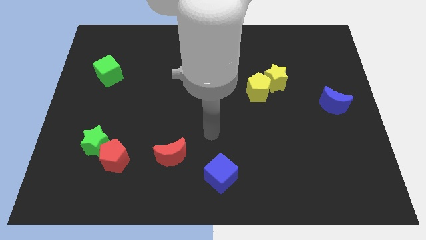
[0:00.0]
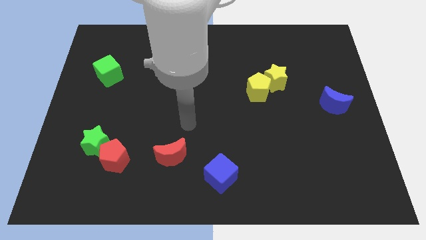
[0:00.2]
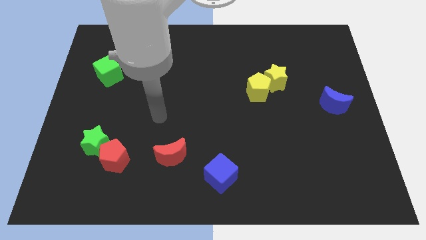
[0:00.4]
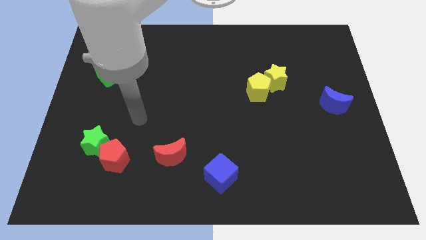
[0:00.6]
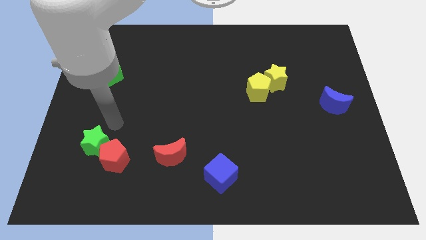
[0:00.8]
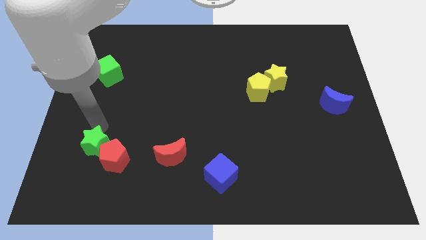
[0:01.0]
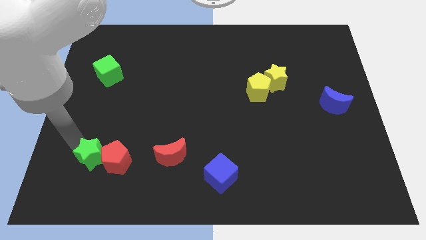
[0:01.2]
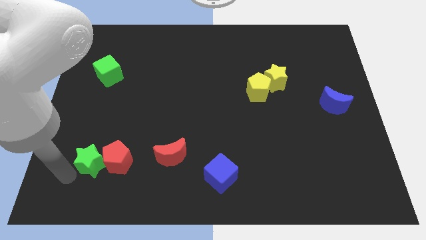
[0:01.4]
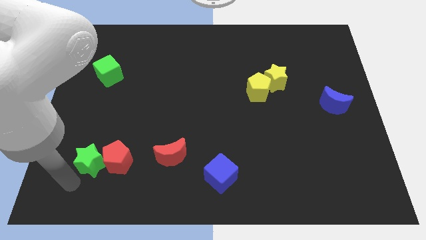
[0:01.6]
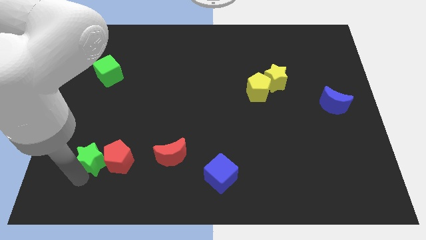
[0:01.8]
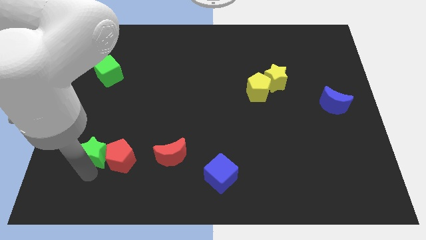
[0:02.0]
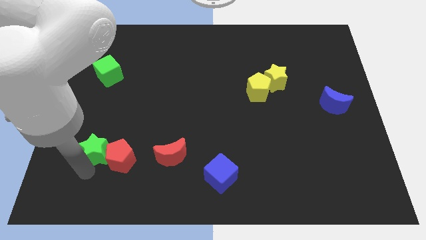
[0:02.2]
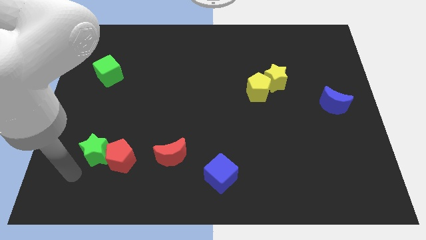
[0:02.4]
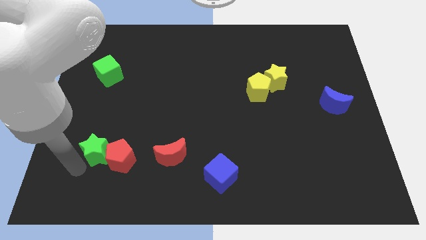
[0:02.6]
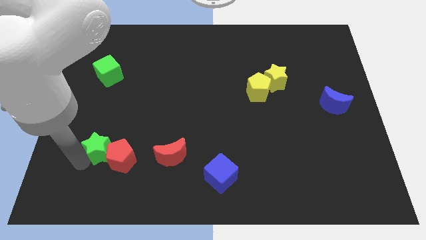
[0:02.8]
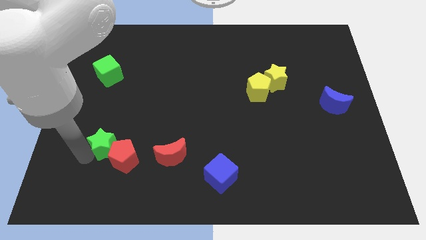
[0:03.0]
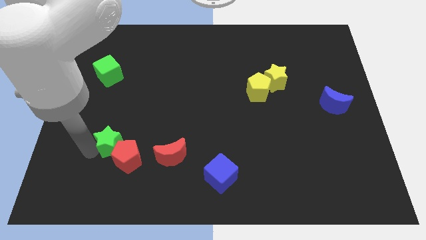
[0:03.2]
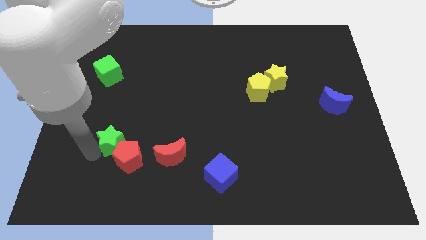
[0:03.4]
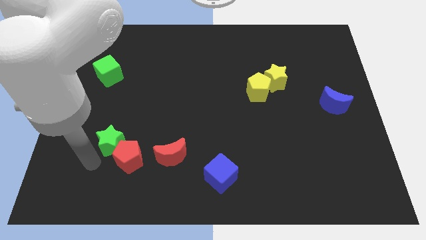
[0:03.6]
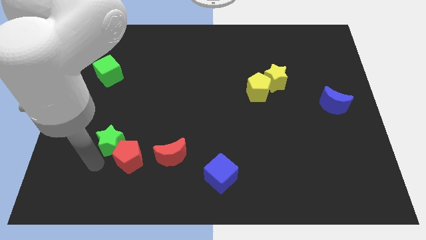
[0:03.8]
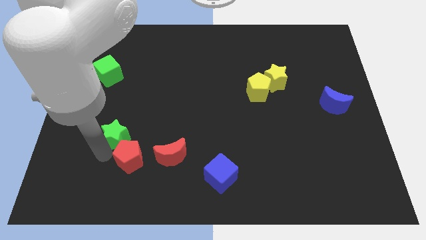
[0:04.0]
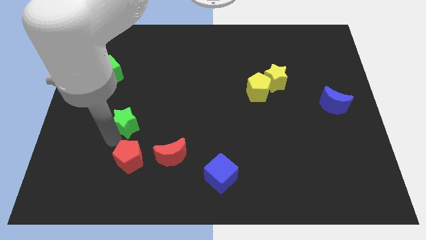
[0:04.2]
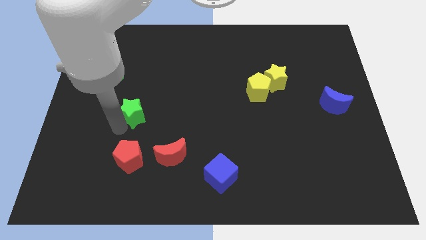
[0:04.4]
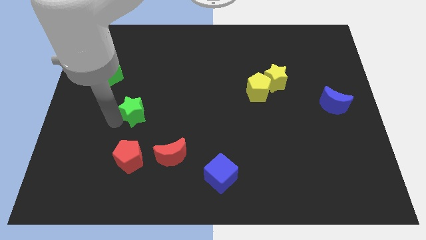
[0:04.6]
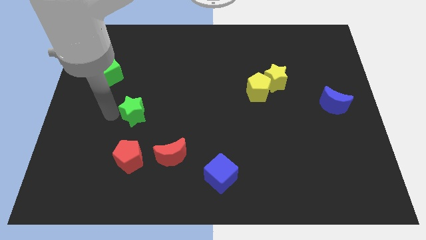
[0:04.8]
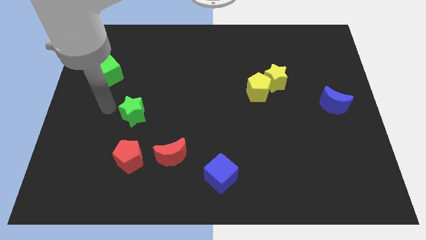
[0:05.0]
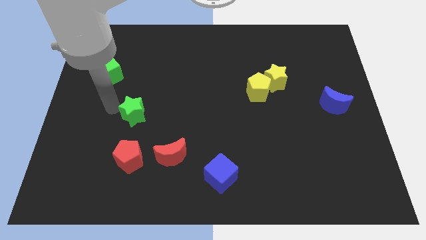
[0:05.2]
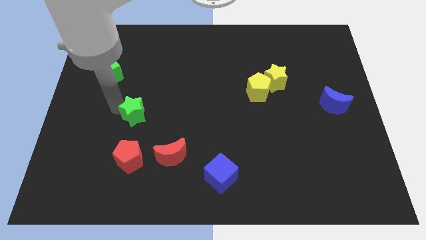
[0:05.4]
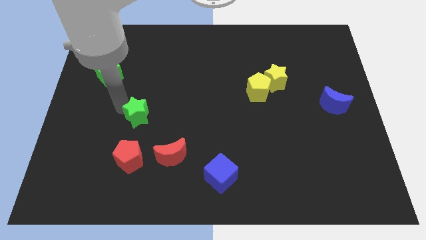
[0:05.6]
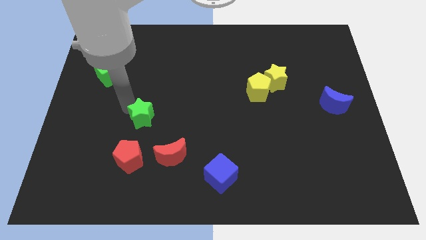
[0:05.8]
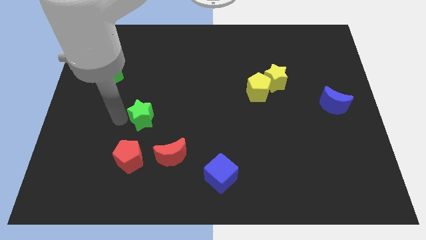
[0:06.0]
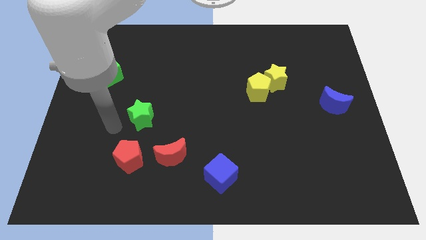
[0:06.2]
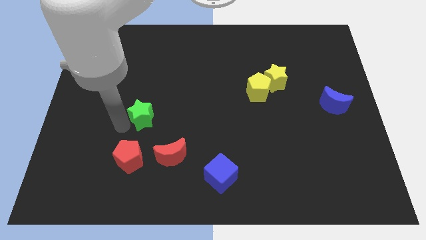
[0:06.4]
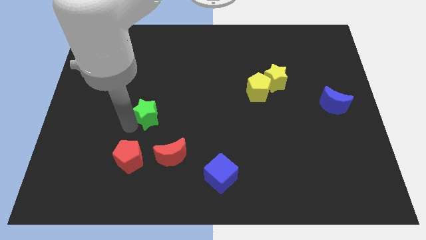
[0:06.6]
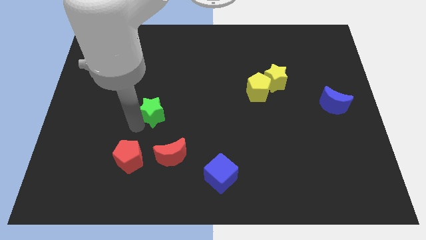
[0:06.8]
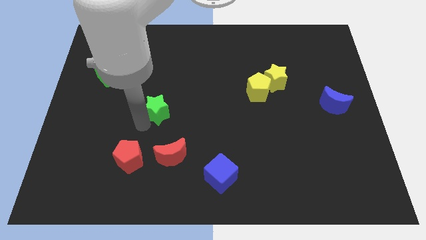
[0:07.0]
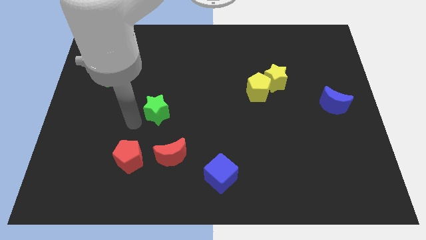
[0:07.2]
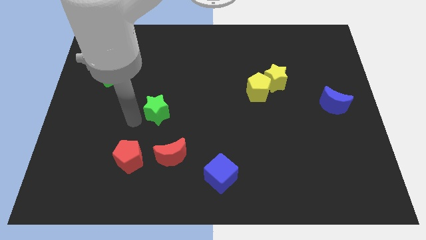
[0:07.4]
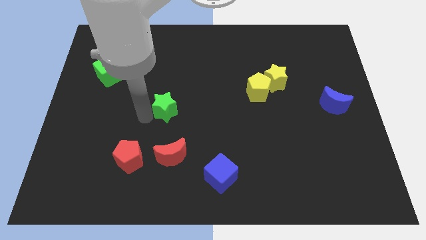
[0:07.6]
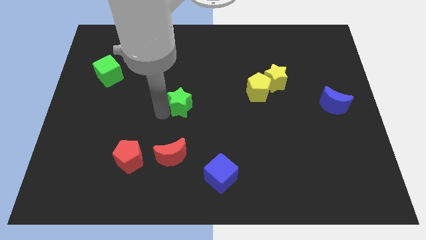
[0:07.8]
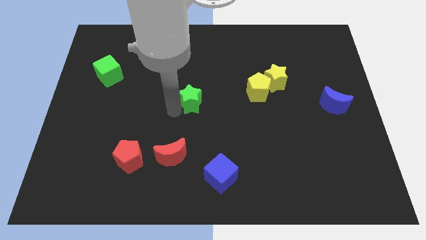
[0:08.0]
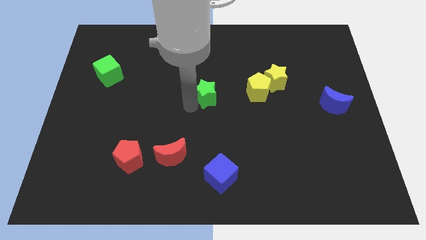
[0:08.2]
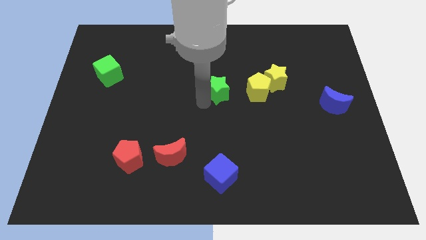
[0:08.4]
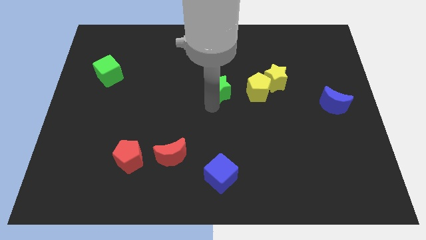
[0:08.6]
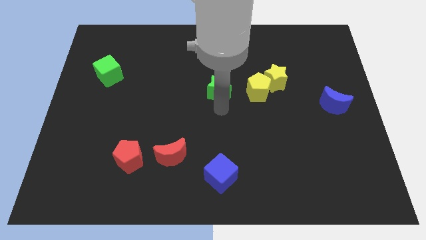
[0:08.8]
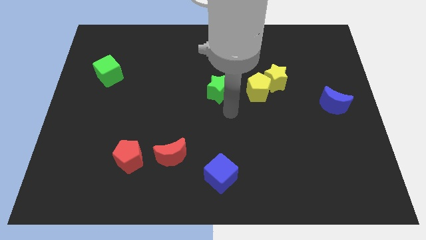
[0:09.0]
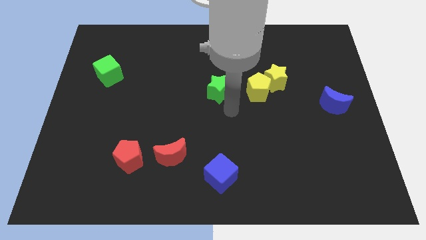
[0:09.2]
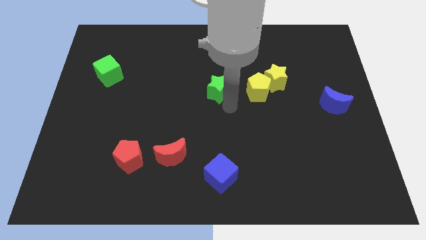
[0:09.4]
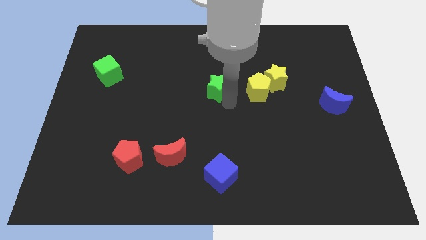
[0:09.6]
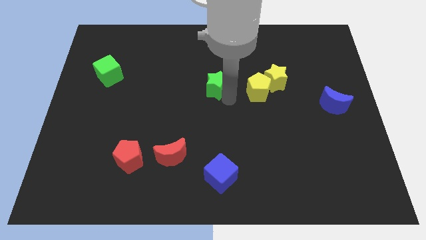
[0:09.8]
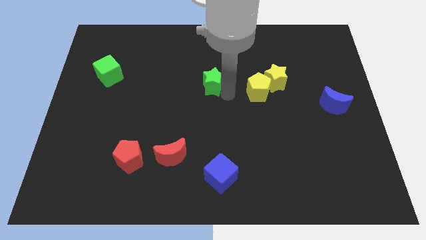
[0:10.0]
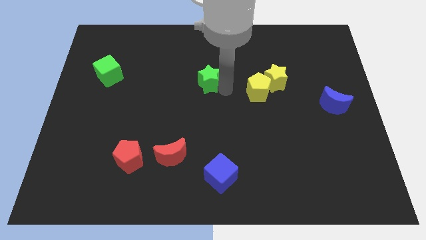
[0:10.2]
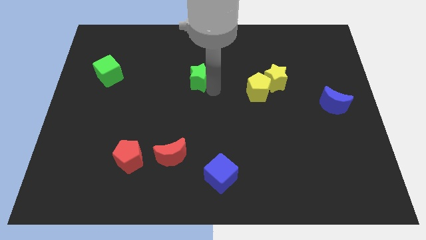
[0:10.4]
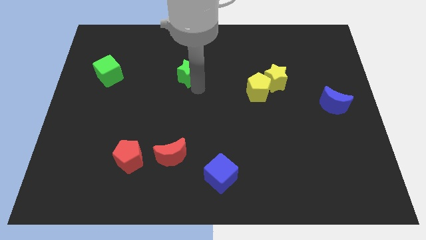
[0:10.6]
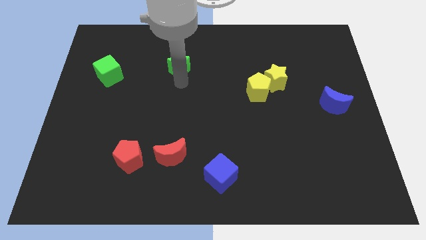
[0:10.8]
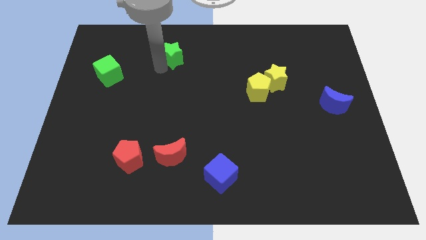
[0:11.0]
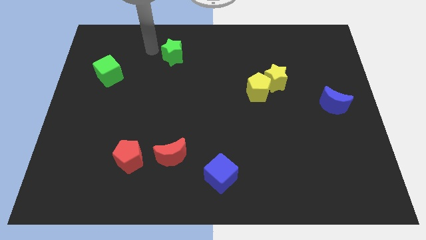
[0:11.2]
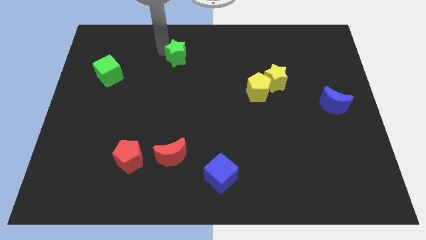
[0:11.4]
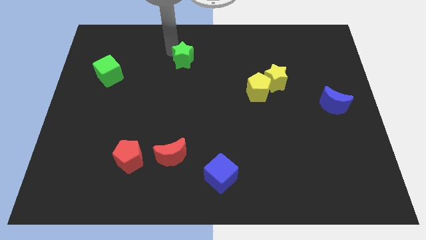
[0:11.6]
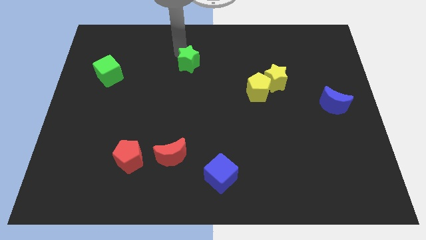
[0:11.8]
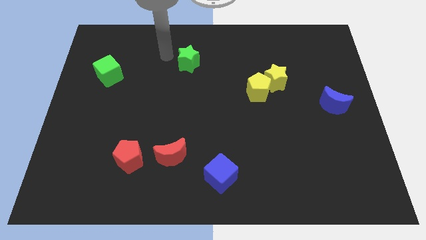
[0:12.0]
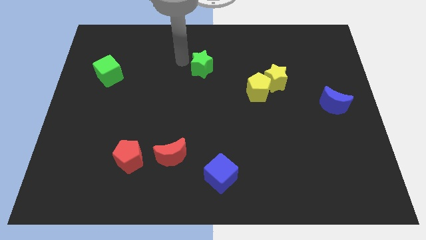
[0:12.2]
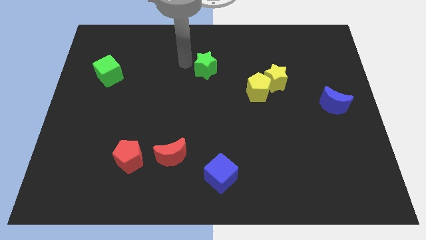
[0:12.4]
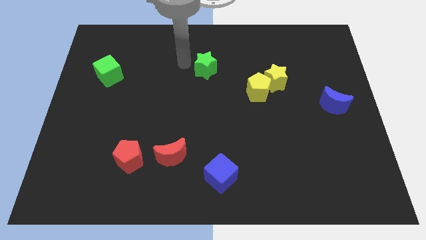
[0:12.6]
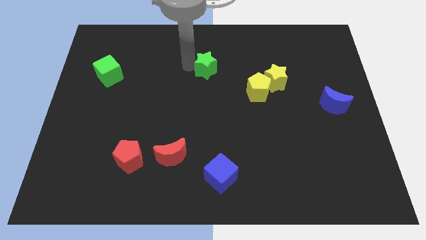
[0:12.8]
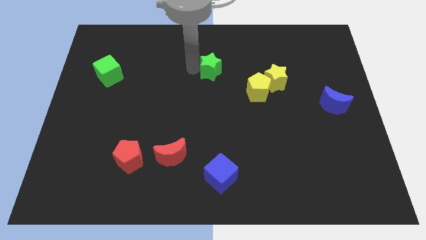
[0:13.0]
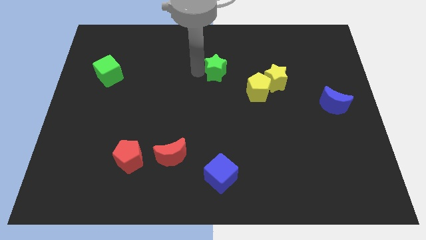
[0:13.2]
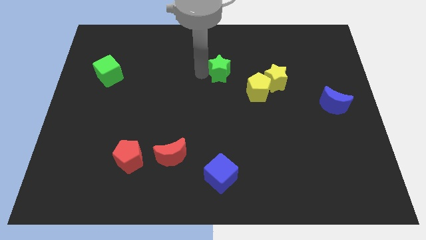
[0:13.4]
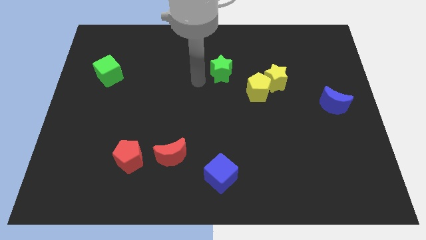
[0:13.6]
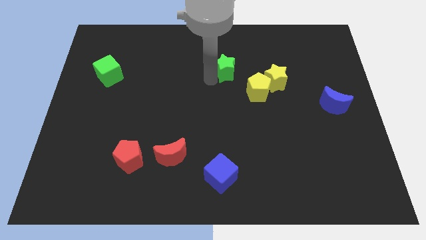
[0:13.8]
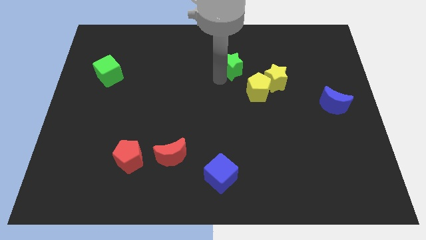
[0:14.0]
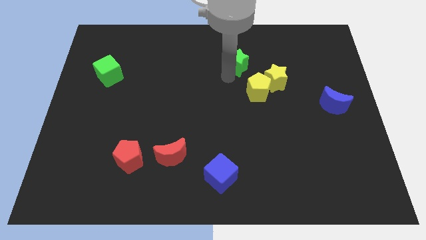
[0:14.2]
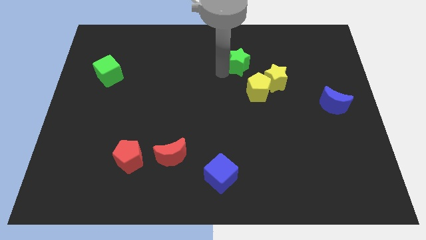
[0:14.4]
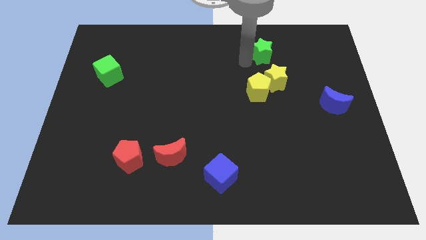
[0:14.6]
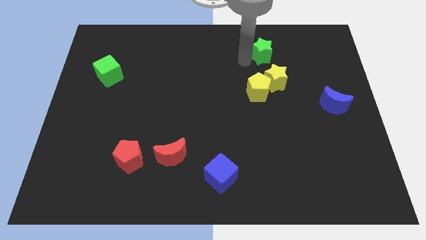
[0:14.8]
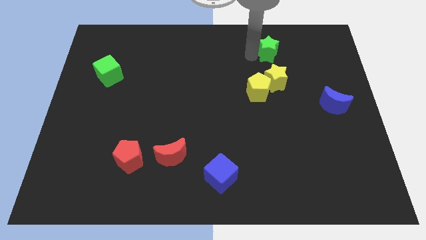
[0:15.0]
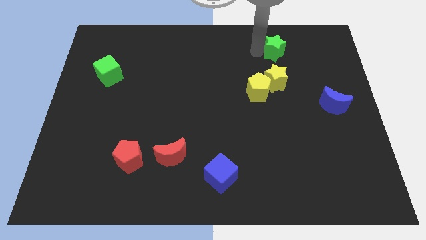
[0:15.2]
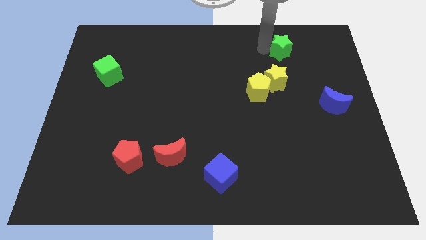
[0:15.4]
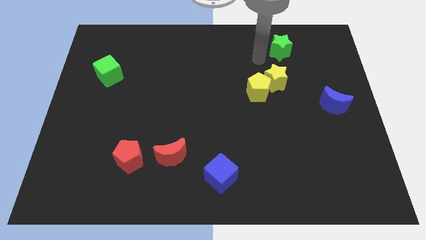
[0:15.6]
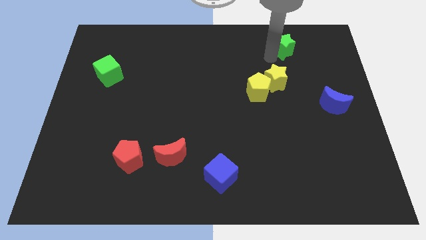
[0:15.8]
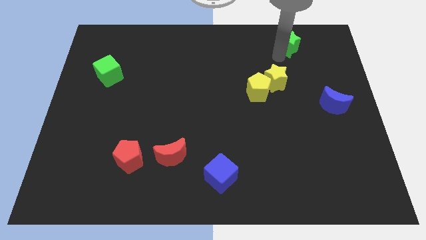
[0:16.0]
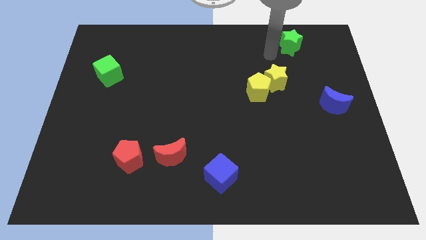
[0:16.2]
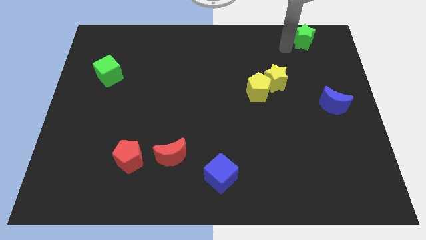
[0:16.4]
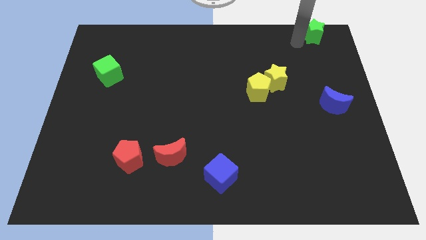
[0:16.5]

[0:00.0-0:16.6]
move the green star to the top right
